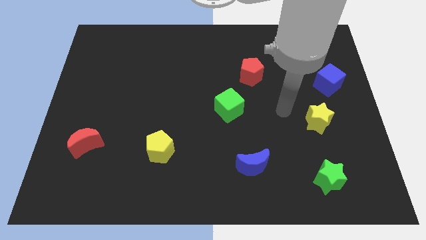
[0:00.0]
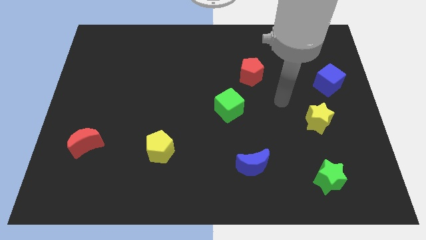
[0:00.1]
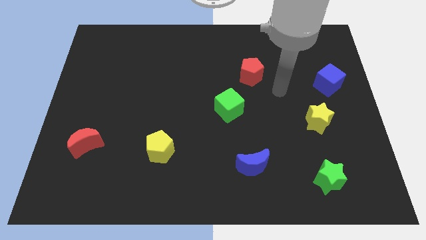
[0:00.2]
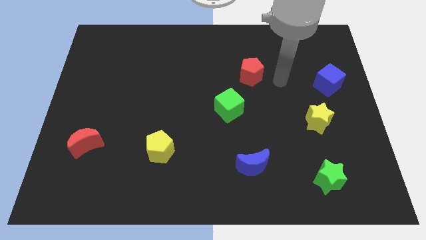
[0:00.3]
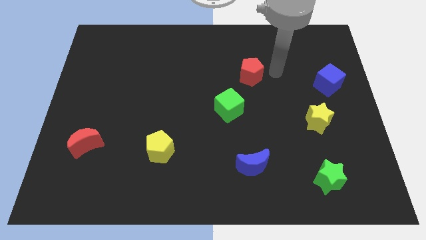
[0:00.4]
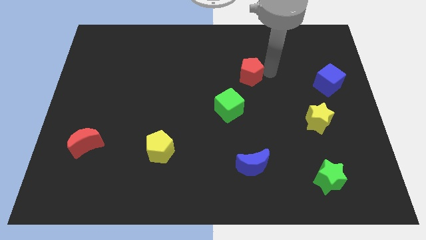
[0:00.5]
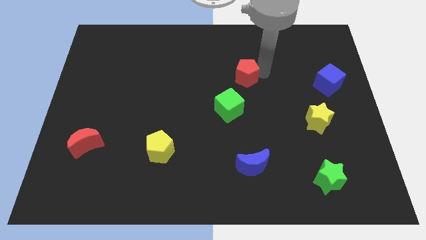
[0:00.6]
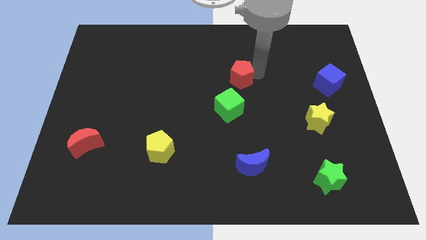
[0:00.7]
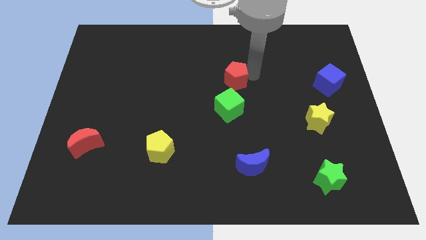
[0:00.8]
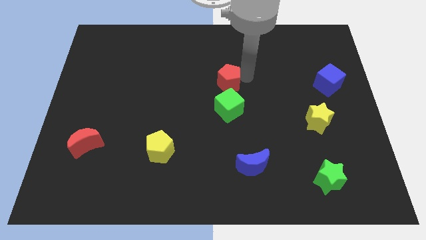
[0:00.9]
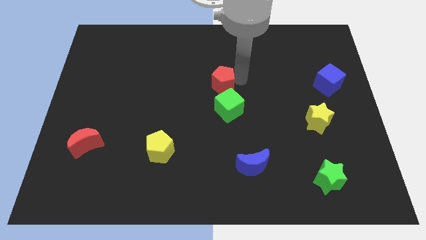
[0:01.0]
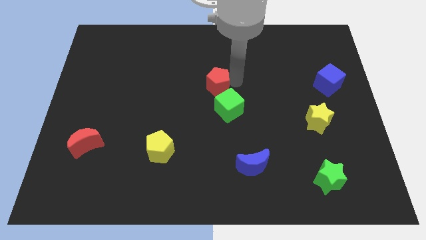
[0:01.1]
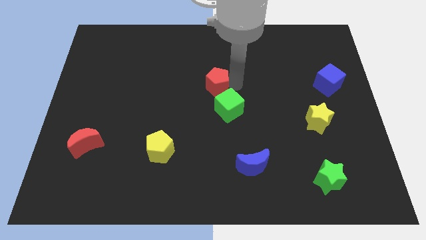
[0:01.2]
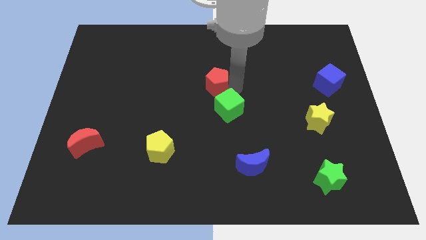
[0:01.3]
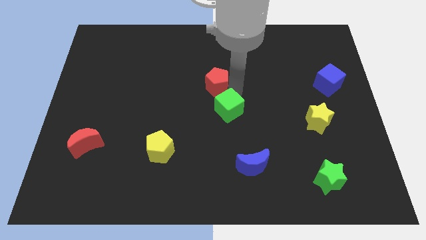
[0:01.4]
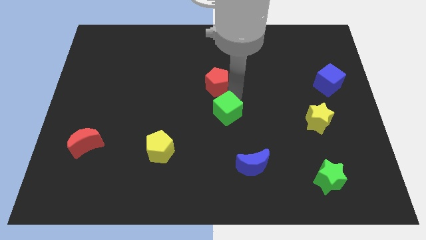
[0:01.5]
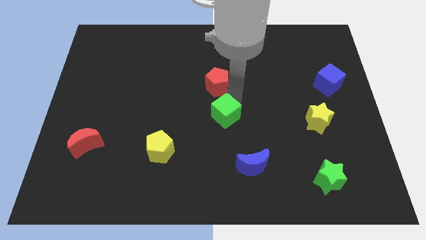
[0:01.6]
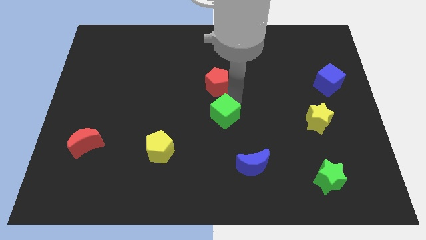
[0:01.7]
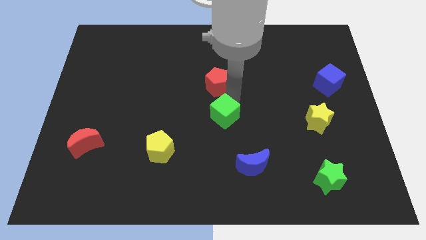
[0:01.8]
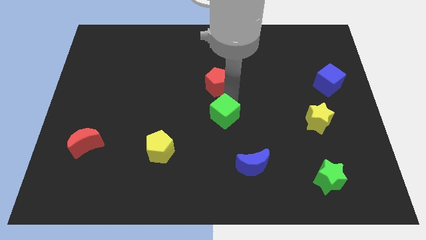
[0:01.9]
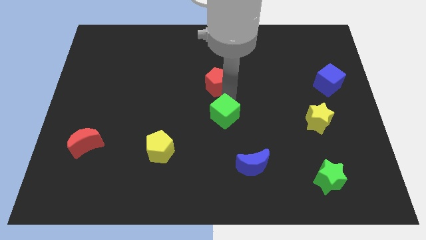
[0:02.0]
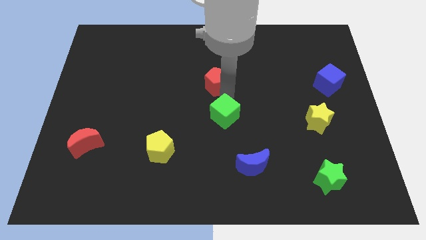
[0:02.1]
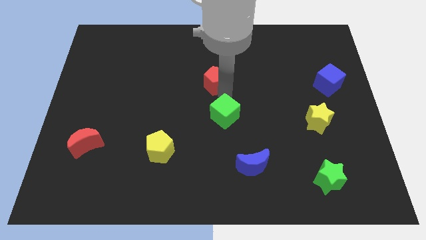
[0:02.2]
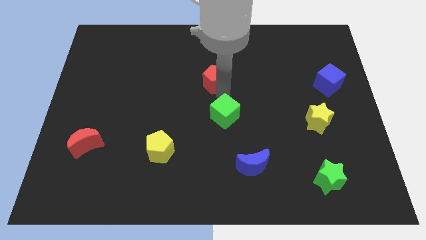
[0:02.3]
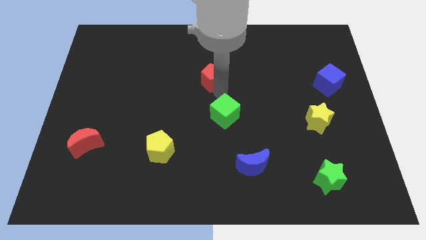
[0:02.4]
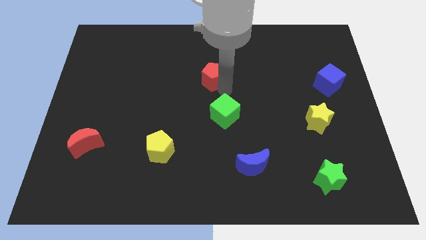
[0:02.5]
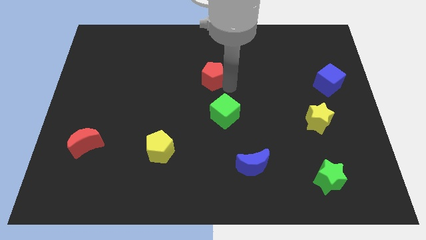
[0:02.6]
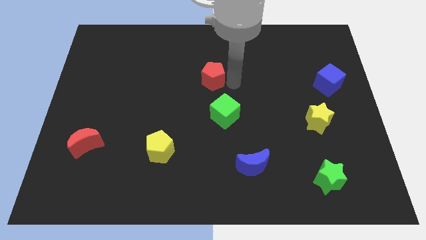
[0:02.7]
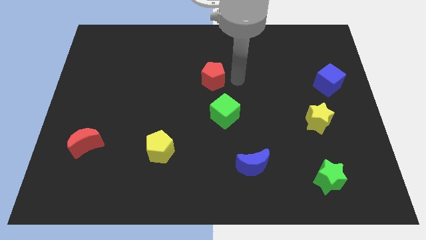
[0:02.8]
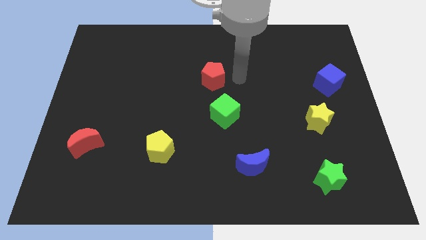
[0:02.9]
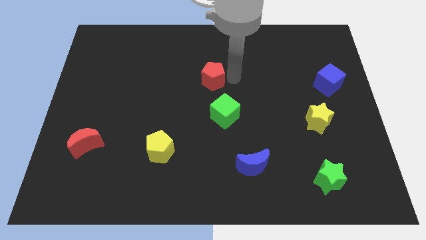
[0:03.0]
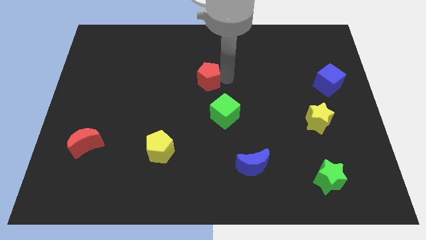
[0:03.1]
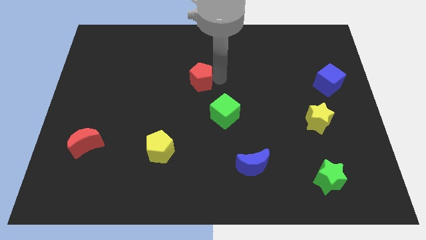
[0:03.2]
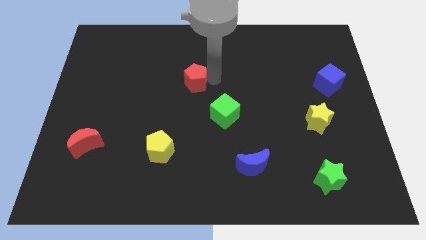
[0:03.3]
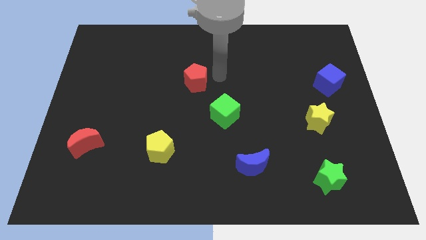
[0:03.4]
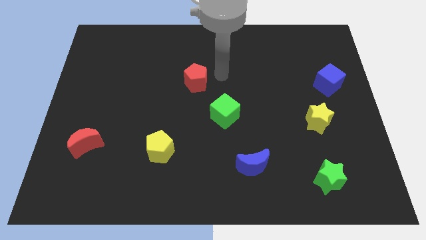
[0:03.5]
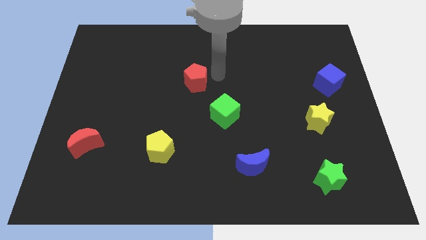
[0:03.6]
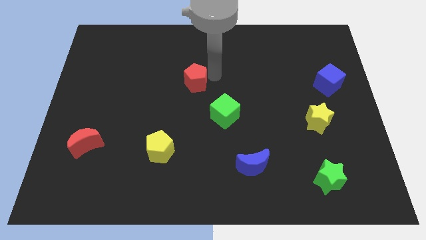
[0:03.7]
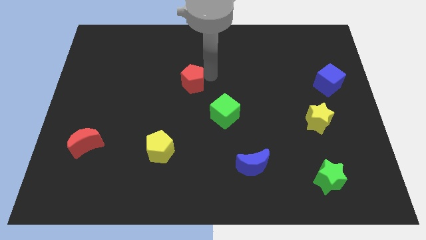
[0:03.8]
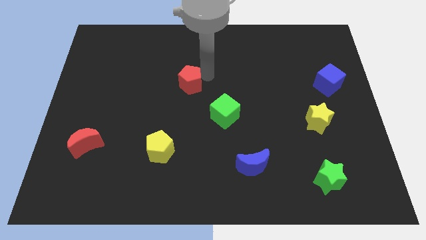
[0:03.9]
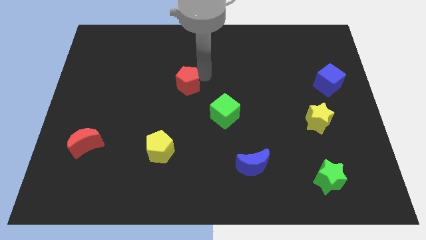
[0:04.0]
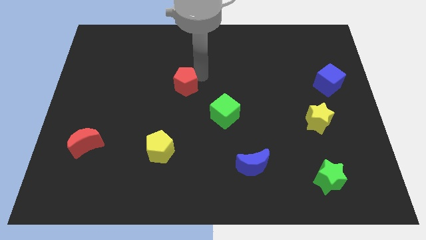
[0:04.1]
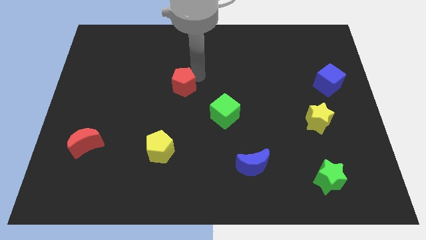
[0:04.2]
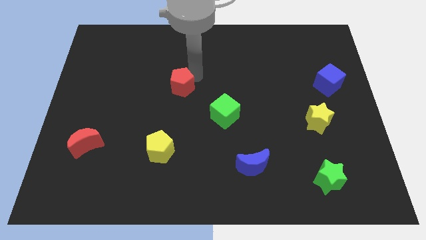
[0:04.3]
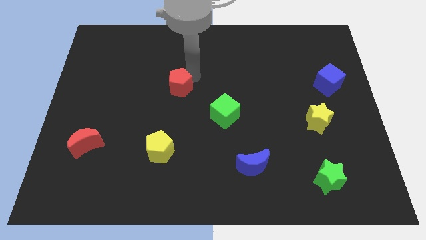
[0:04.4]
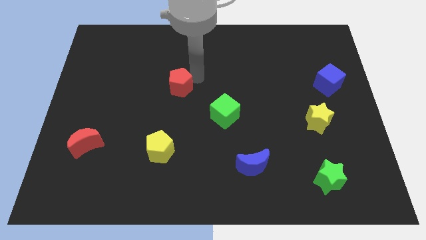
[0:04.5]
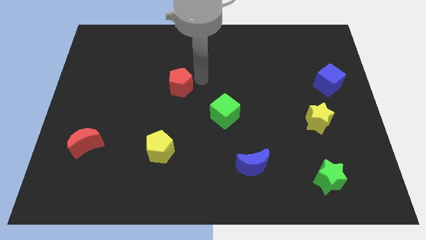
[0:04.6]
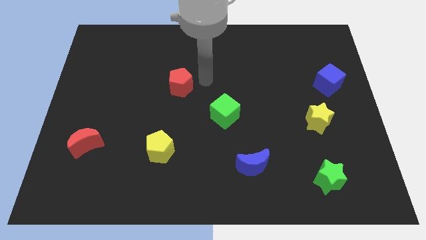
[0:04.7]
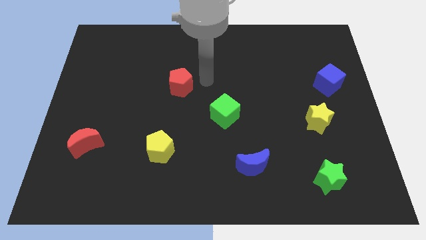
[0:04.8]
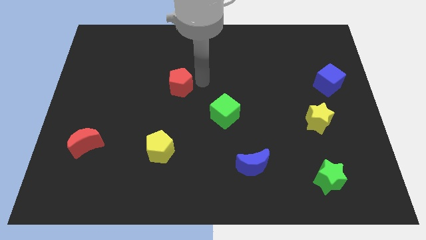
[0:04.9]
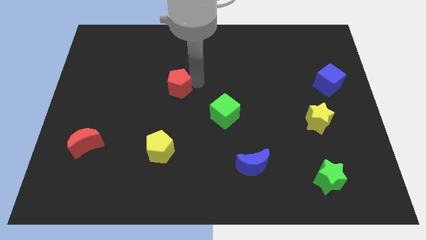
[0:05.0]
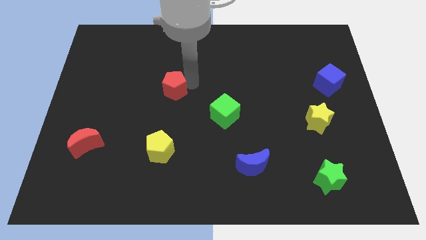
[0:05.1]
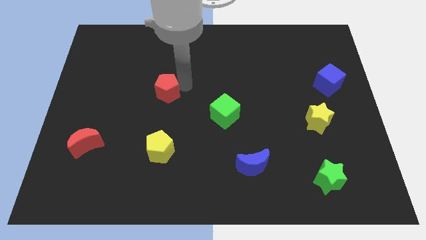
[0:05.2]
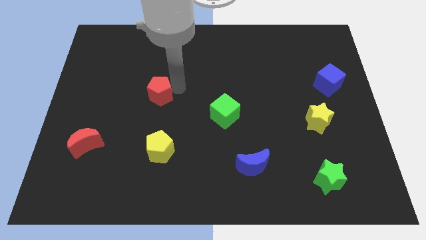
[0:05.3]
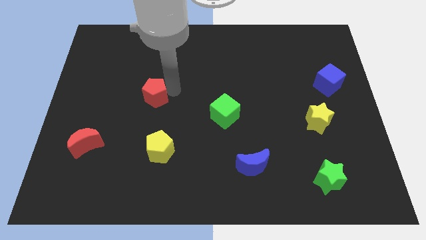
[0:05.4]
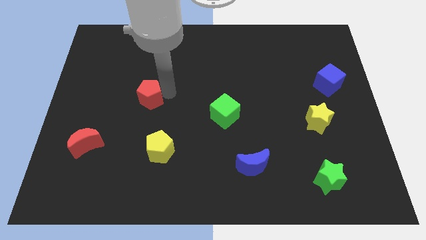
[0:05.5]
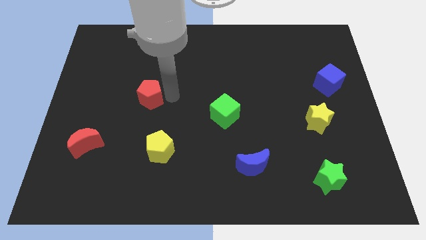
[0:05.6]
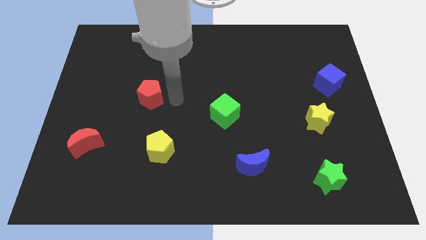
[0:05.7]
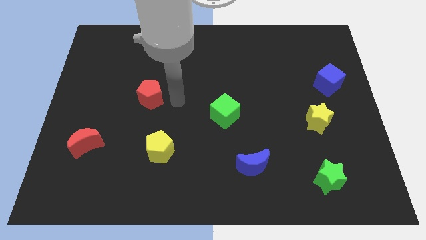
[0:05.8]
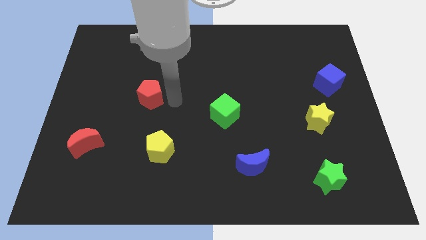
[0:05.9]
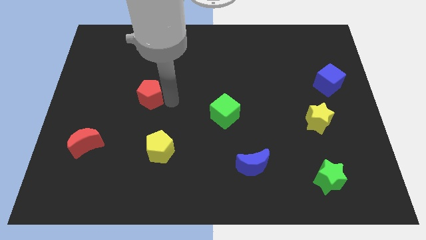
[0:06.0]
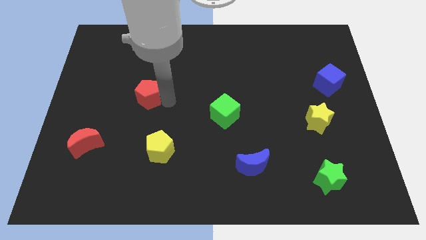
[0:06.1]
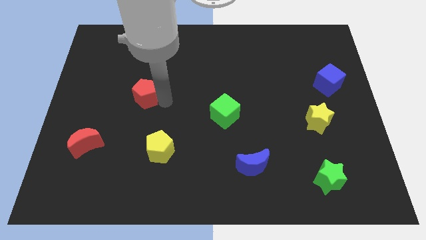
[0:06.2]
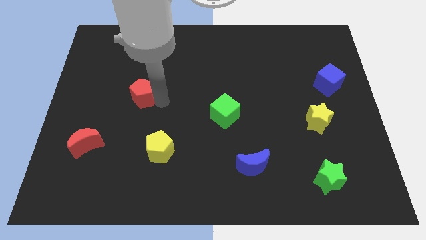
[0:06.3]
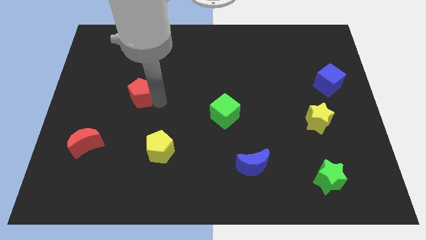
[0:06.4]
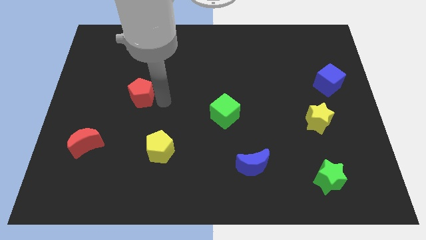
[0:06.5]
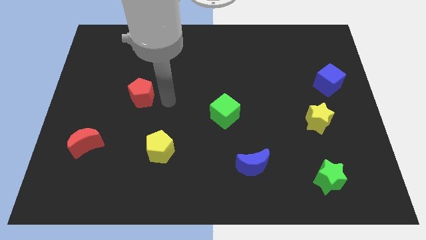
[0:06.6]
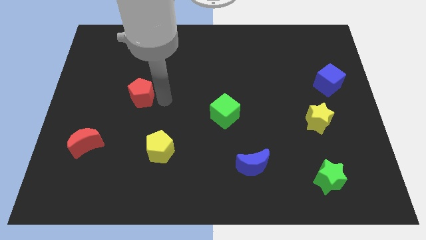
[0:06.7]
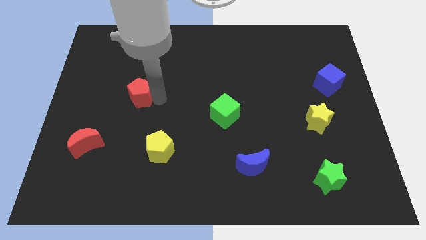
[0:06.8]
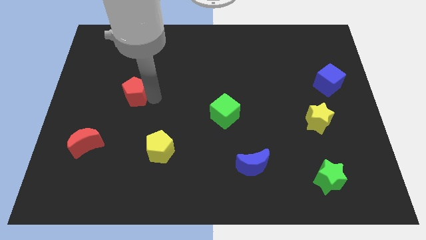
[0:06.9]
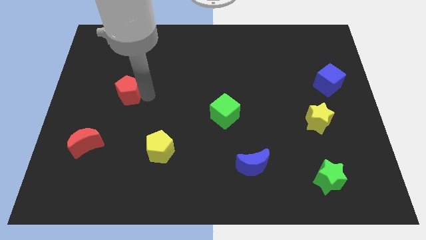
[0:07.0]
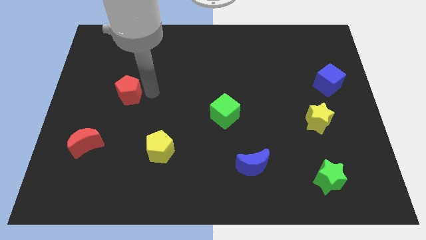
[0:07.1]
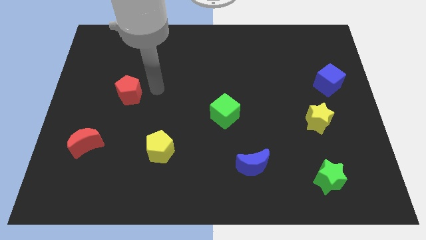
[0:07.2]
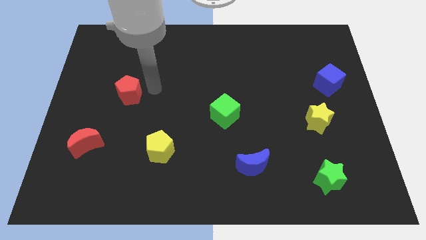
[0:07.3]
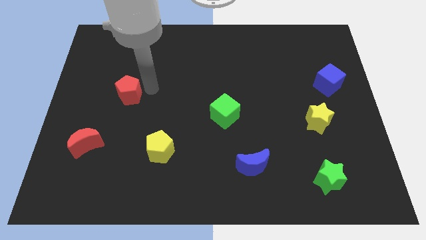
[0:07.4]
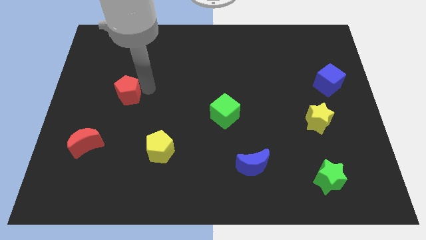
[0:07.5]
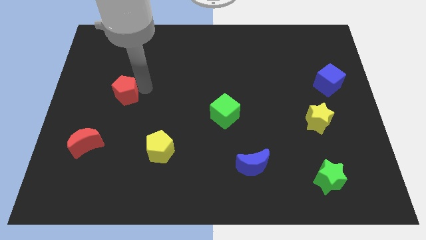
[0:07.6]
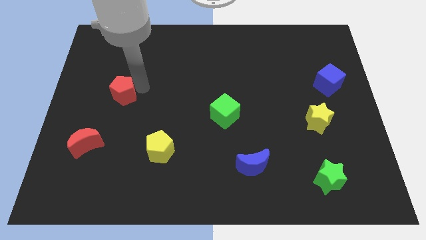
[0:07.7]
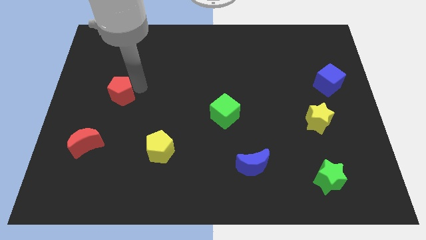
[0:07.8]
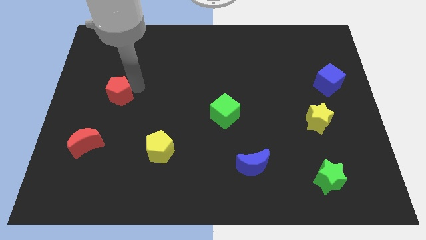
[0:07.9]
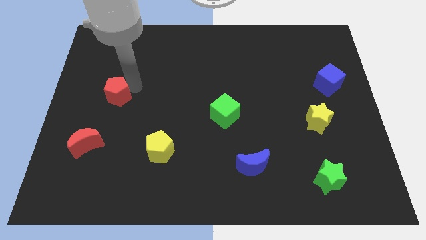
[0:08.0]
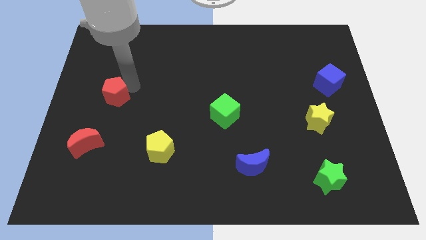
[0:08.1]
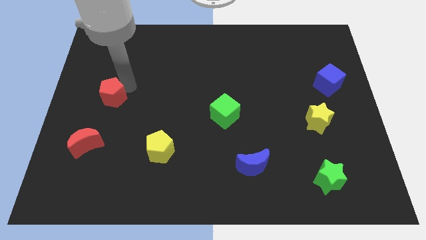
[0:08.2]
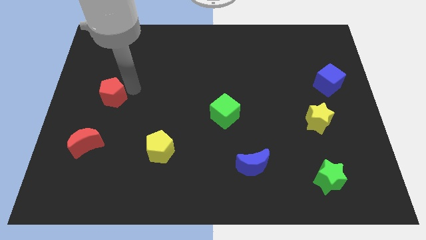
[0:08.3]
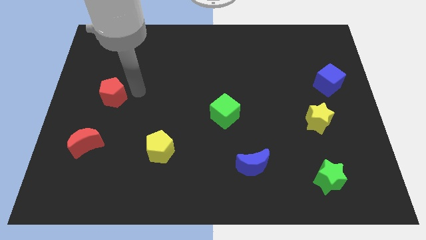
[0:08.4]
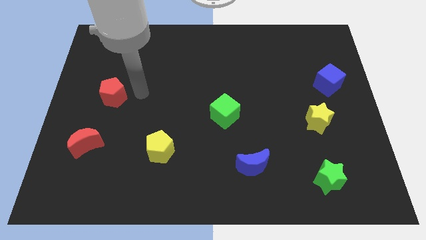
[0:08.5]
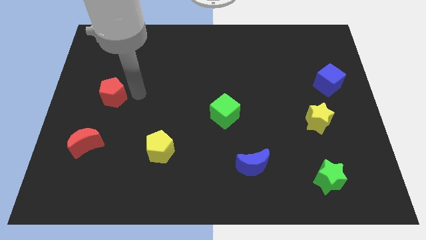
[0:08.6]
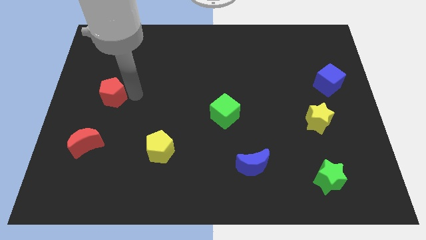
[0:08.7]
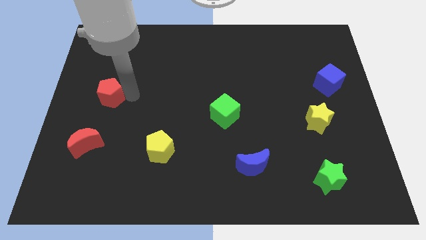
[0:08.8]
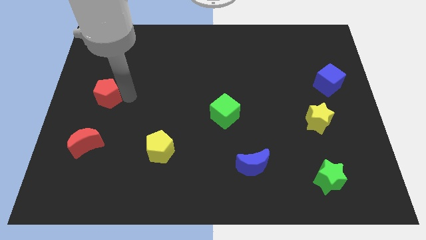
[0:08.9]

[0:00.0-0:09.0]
move the red pentagon to the center left
